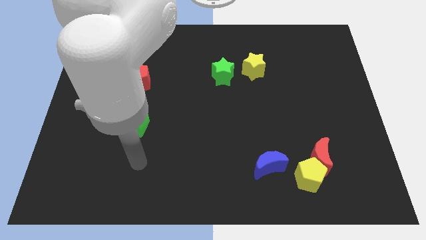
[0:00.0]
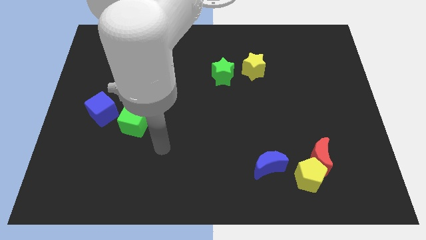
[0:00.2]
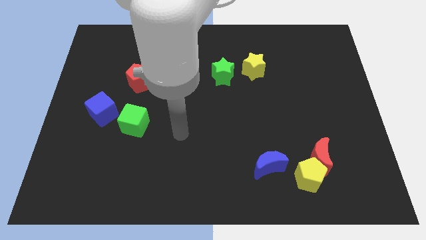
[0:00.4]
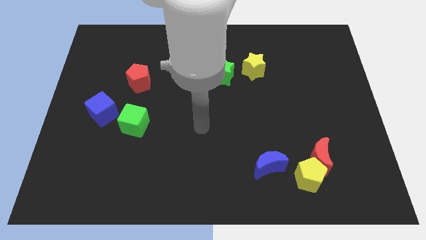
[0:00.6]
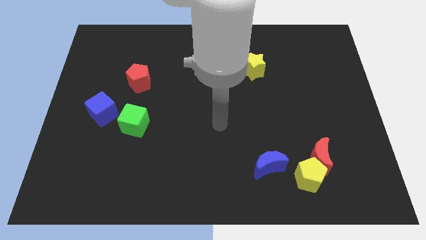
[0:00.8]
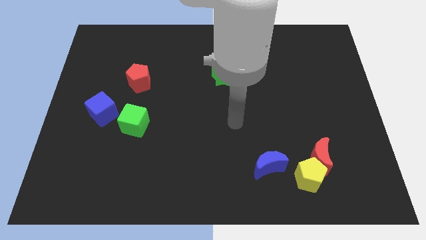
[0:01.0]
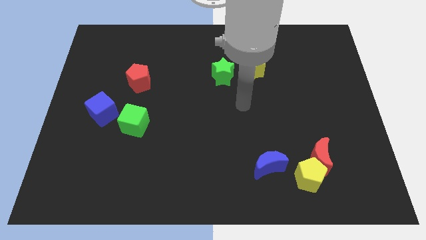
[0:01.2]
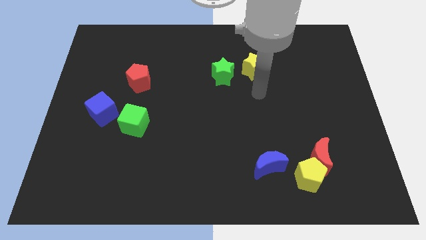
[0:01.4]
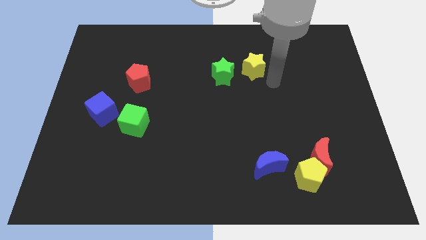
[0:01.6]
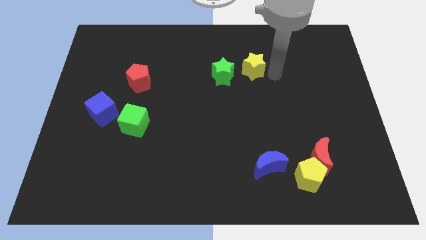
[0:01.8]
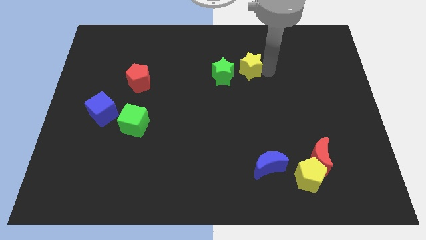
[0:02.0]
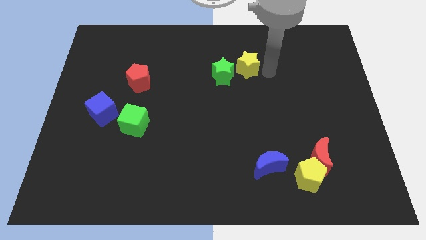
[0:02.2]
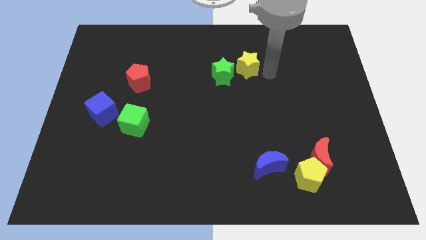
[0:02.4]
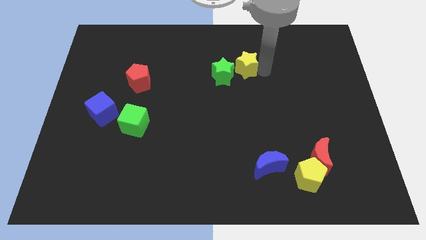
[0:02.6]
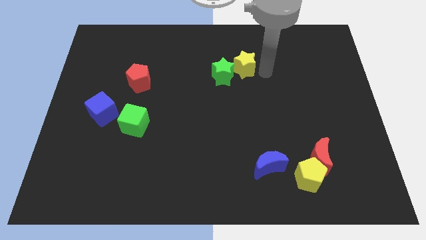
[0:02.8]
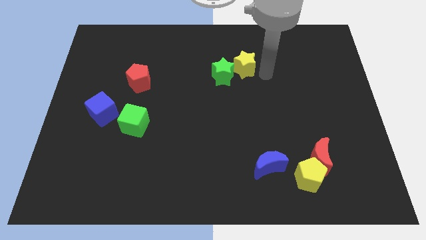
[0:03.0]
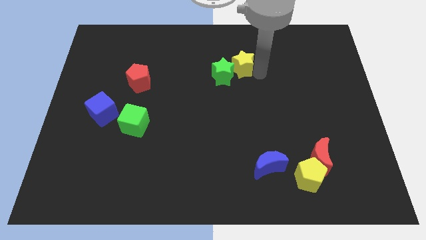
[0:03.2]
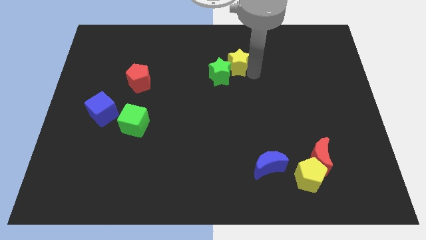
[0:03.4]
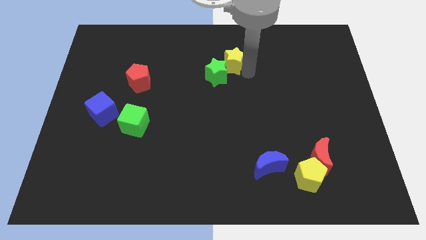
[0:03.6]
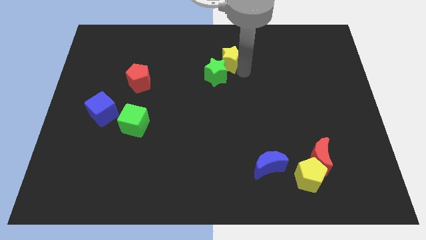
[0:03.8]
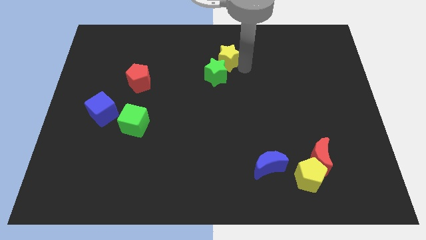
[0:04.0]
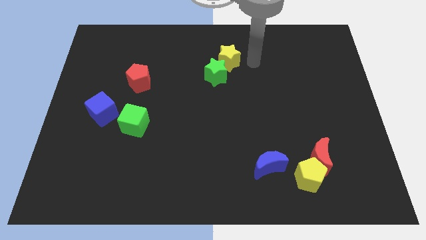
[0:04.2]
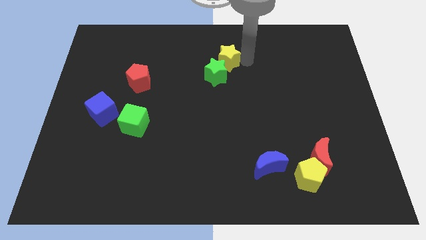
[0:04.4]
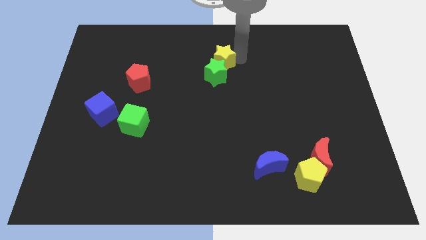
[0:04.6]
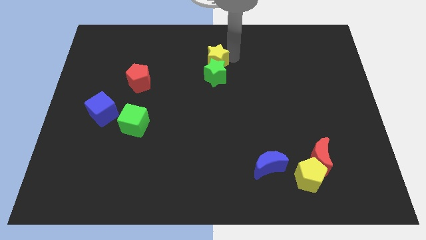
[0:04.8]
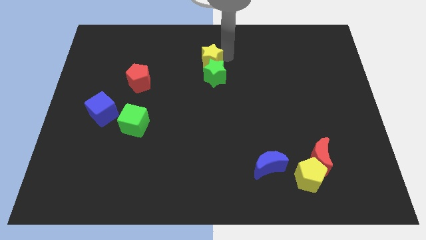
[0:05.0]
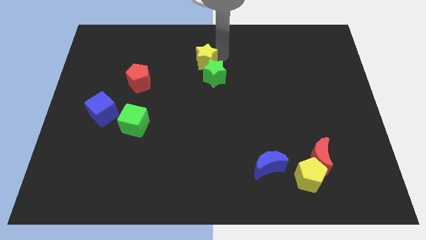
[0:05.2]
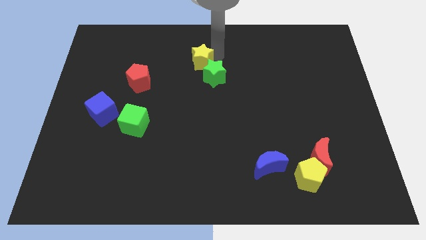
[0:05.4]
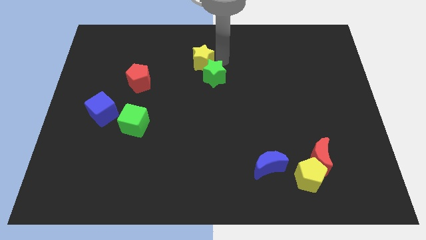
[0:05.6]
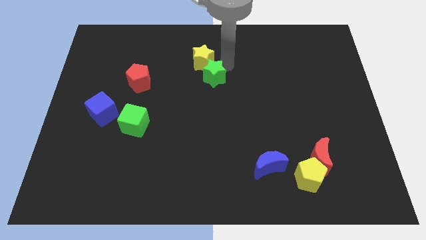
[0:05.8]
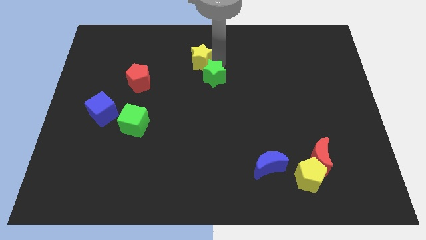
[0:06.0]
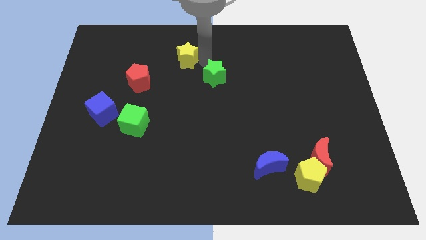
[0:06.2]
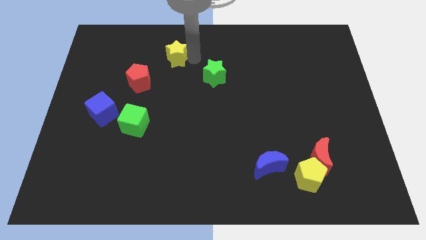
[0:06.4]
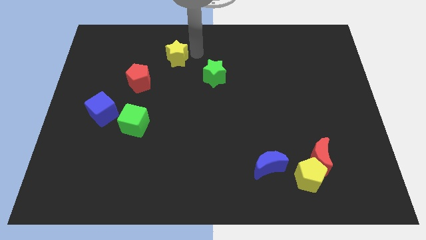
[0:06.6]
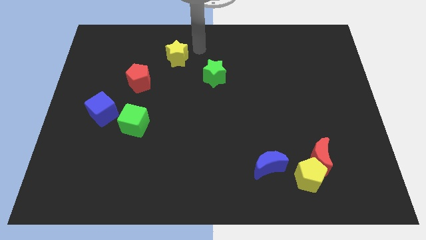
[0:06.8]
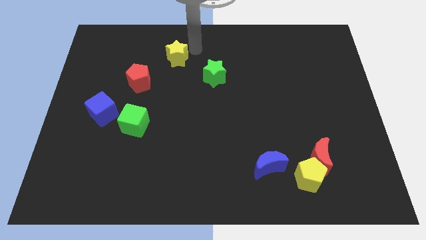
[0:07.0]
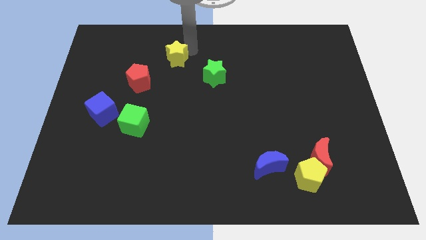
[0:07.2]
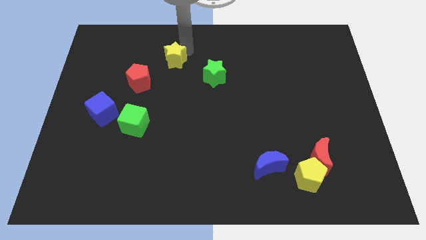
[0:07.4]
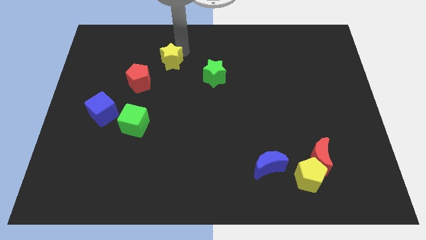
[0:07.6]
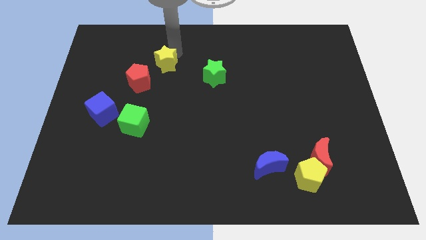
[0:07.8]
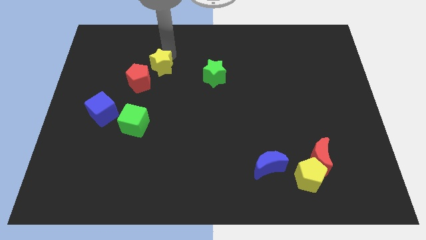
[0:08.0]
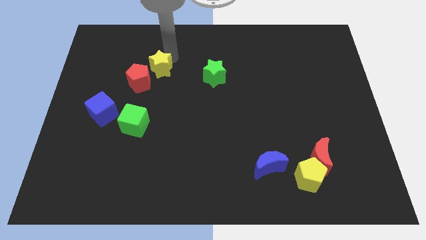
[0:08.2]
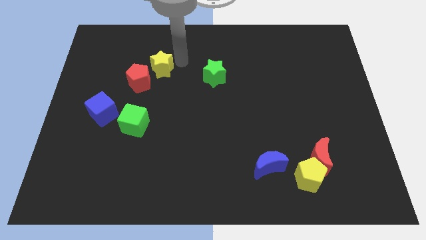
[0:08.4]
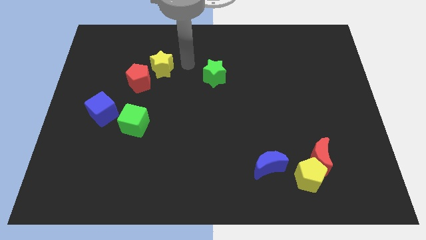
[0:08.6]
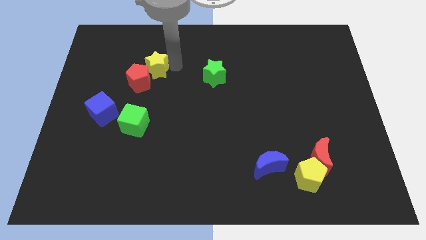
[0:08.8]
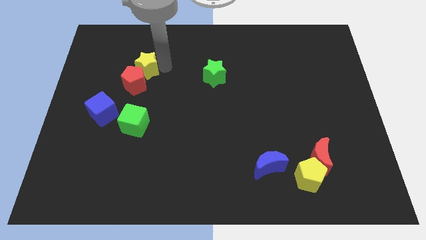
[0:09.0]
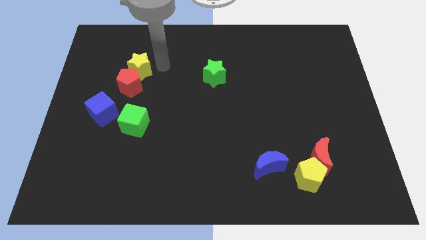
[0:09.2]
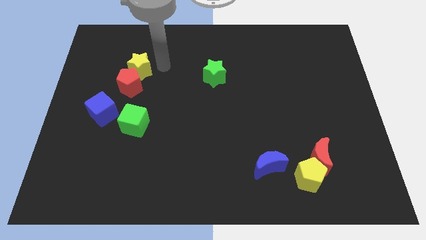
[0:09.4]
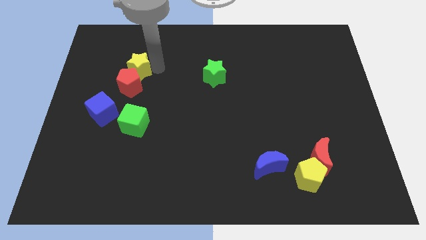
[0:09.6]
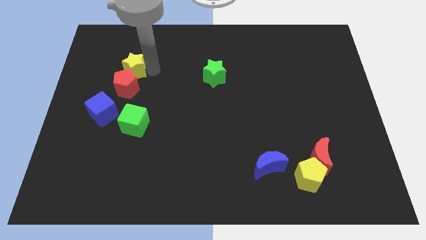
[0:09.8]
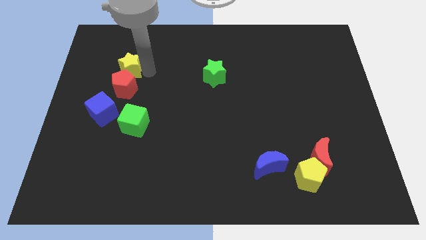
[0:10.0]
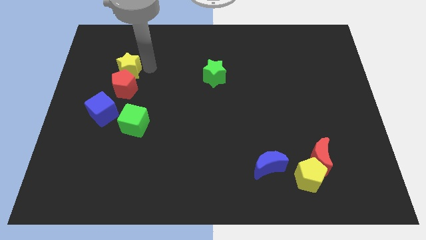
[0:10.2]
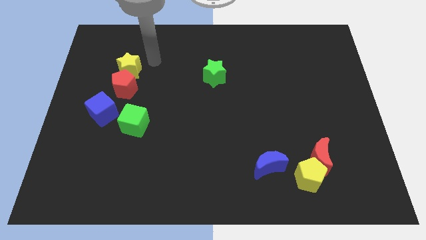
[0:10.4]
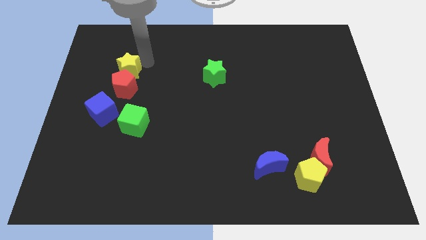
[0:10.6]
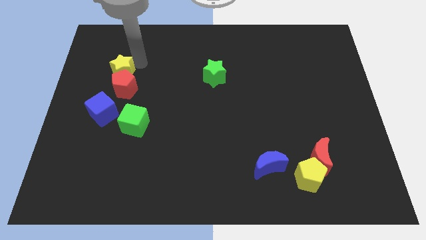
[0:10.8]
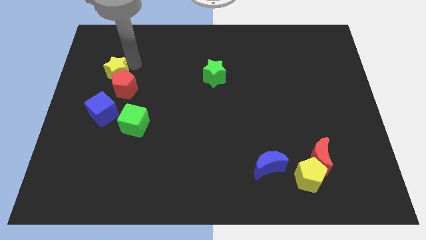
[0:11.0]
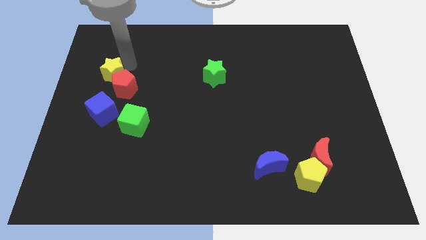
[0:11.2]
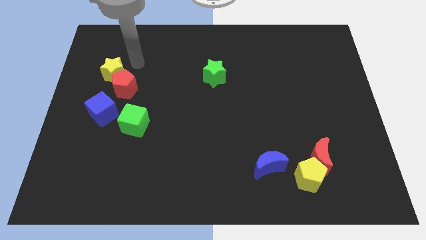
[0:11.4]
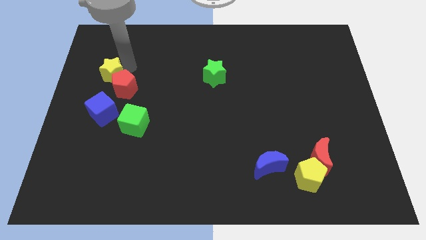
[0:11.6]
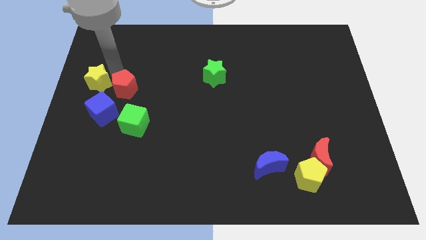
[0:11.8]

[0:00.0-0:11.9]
put the yellow star to the left side of the board
